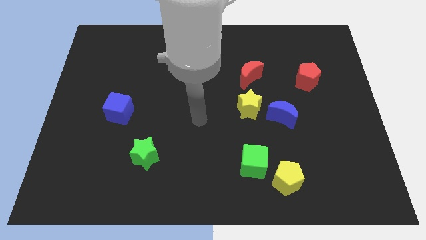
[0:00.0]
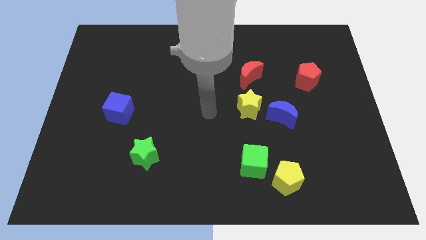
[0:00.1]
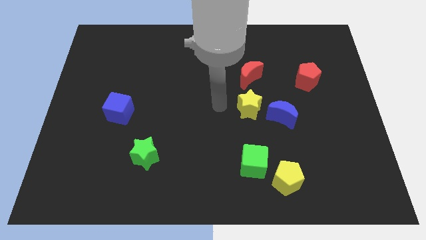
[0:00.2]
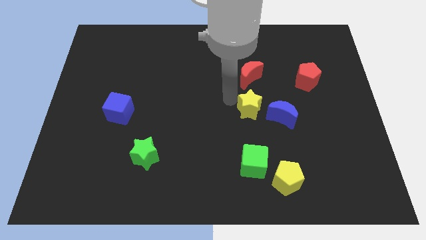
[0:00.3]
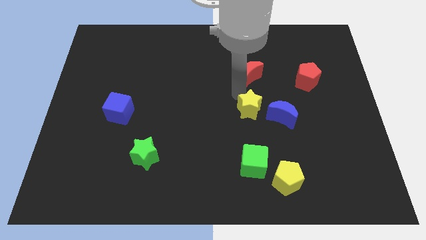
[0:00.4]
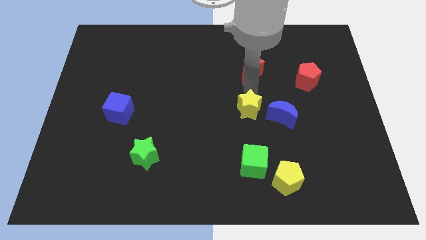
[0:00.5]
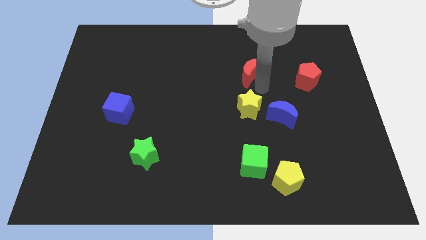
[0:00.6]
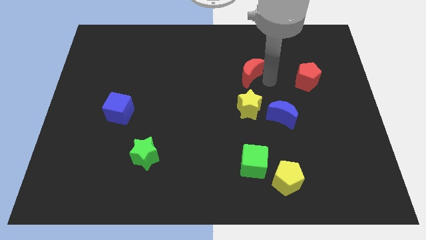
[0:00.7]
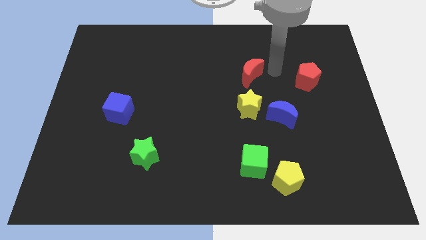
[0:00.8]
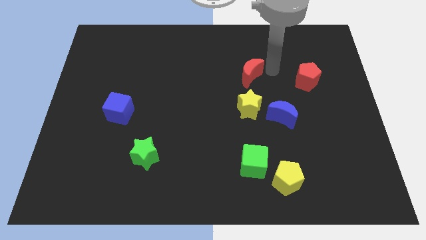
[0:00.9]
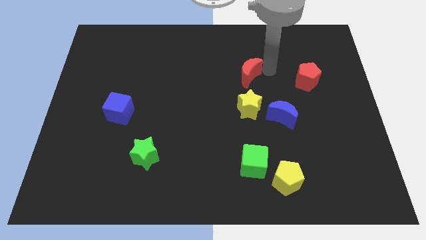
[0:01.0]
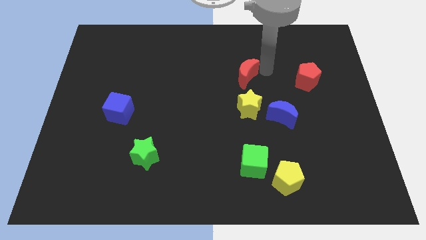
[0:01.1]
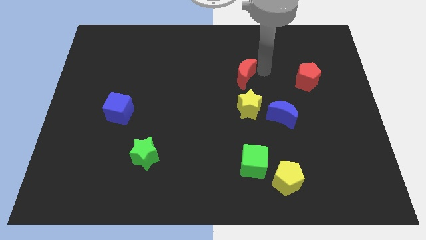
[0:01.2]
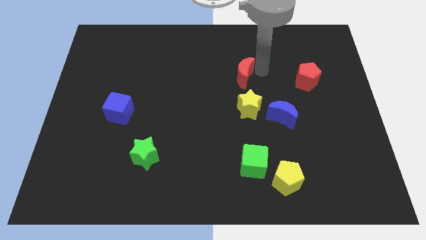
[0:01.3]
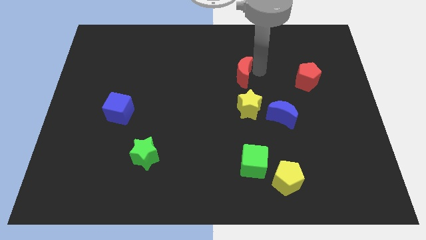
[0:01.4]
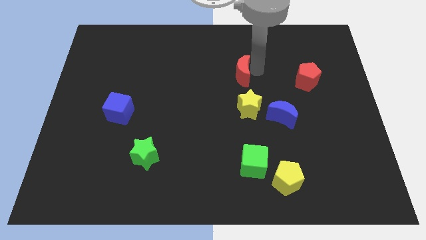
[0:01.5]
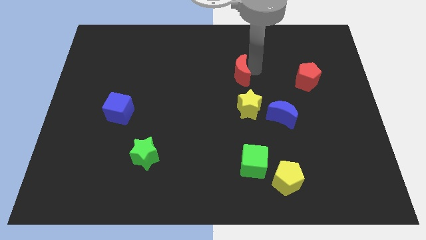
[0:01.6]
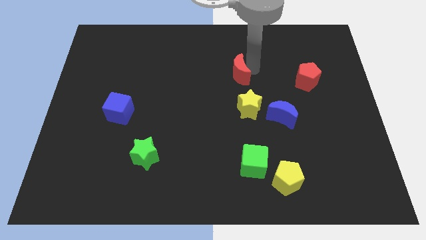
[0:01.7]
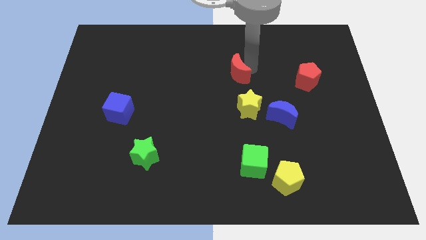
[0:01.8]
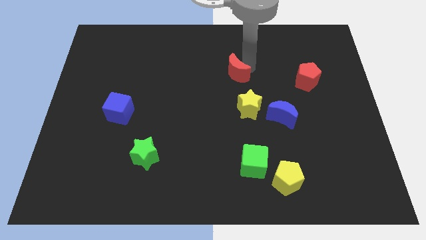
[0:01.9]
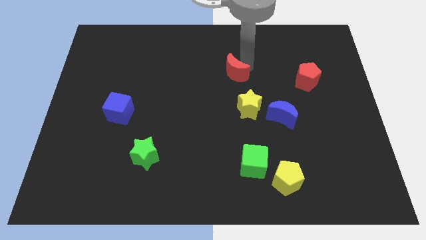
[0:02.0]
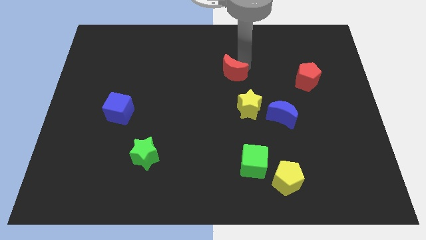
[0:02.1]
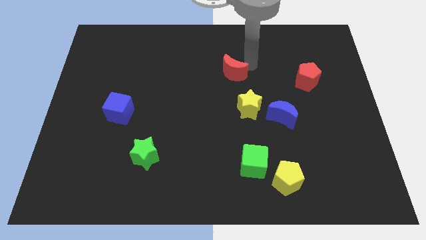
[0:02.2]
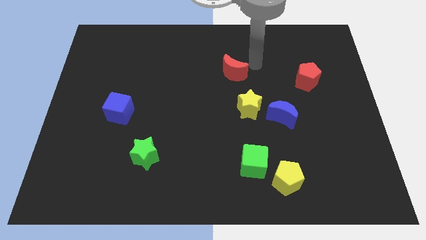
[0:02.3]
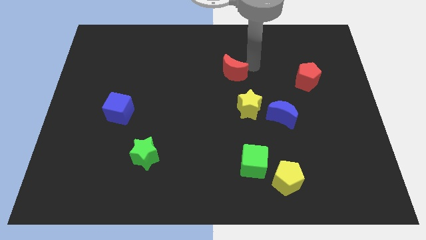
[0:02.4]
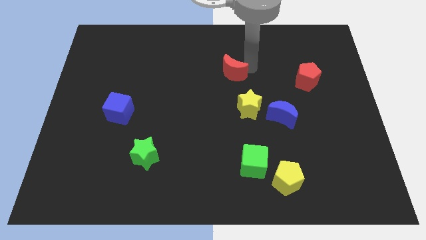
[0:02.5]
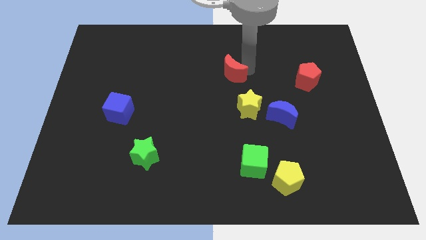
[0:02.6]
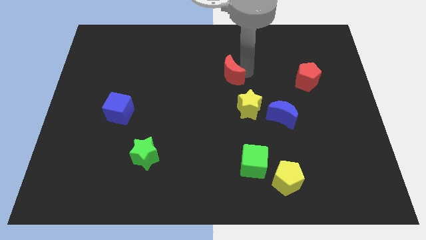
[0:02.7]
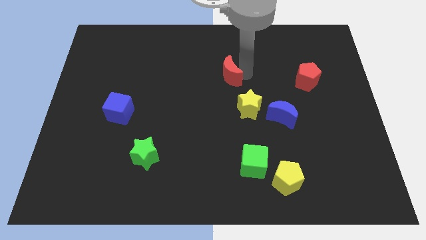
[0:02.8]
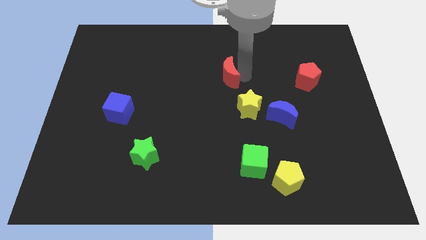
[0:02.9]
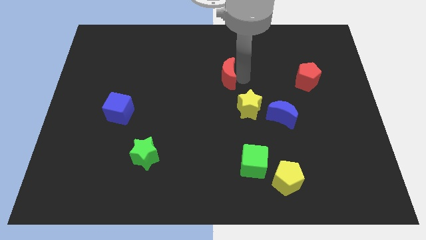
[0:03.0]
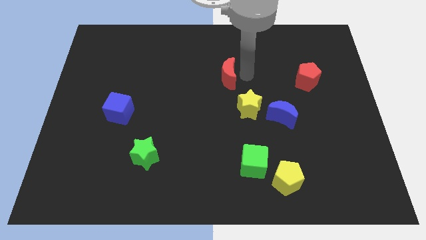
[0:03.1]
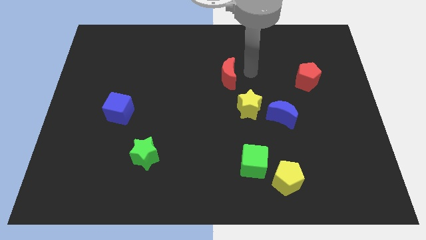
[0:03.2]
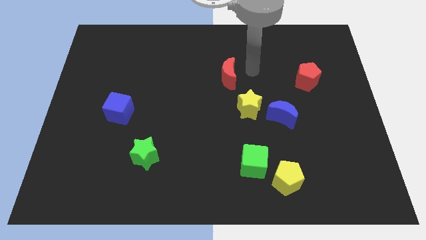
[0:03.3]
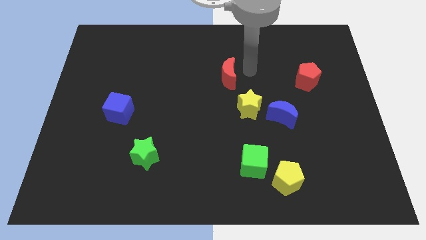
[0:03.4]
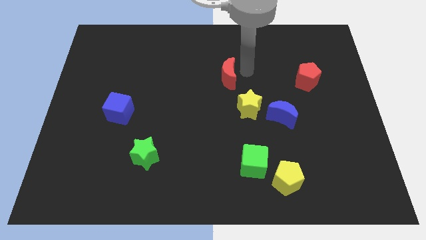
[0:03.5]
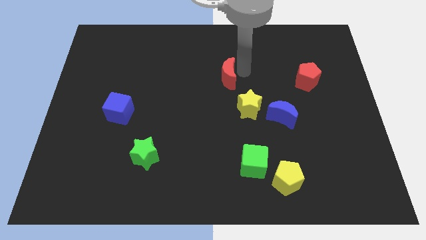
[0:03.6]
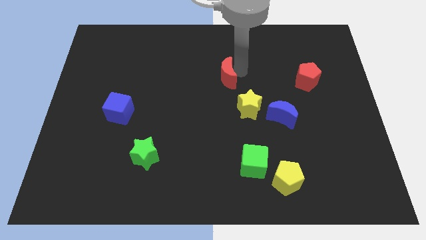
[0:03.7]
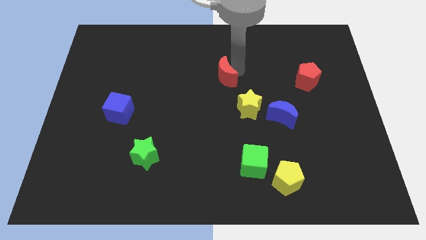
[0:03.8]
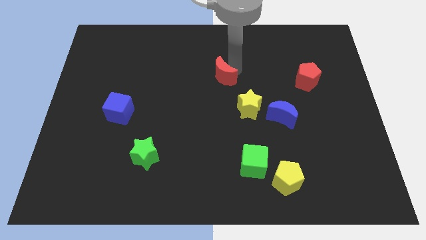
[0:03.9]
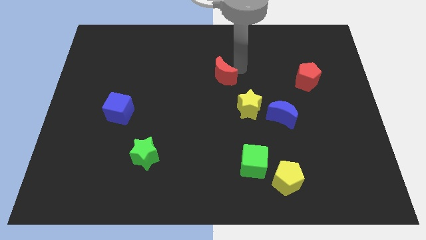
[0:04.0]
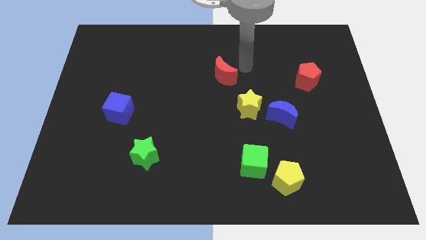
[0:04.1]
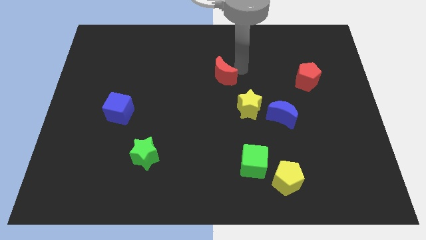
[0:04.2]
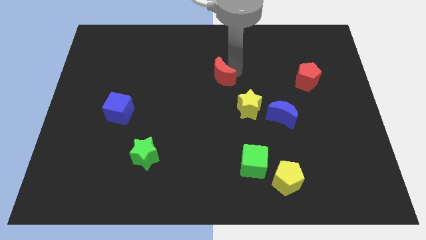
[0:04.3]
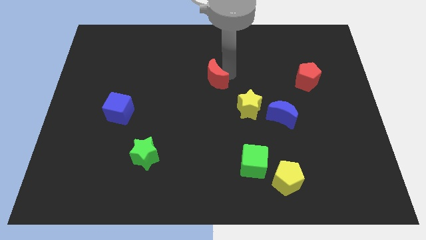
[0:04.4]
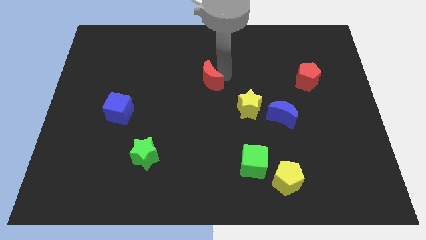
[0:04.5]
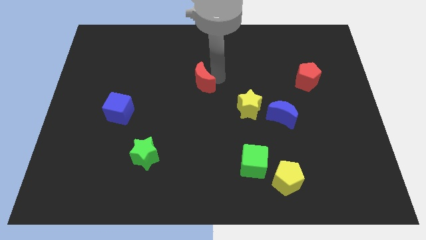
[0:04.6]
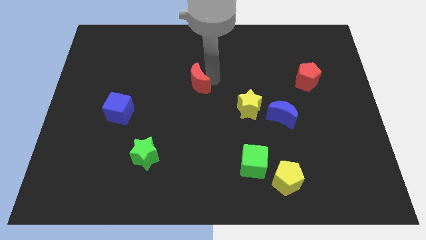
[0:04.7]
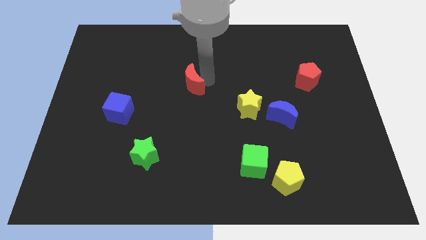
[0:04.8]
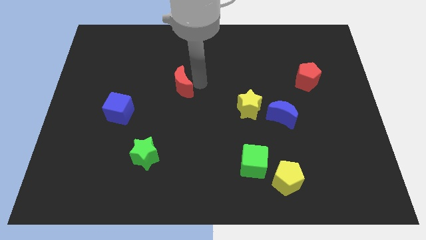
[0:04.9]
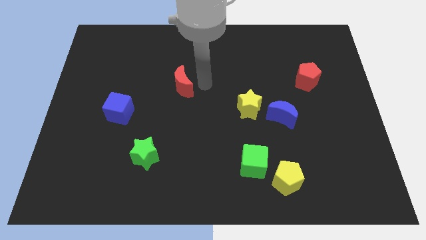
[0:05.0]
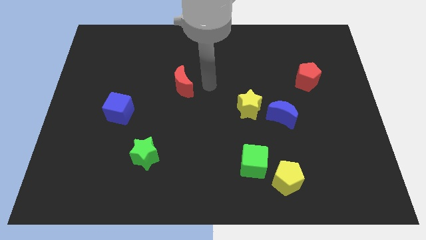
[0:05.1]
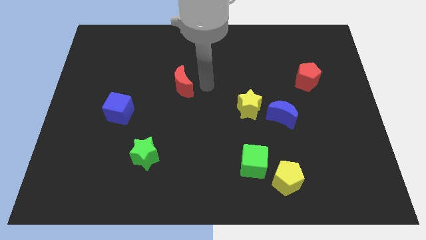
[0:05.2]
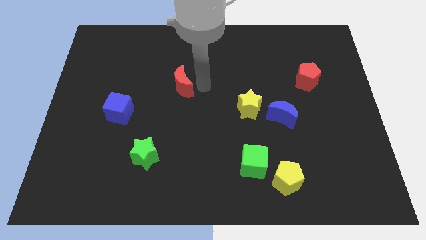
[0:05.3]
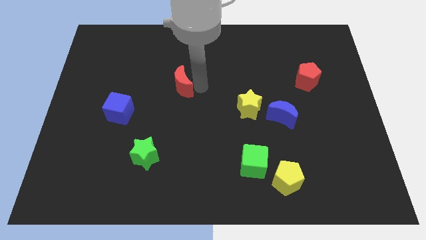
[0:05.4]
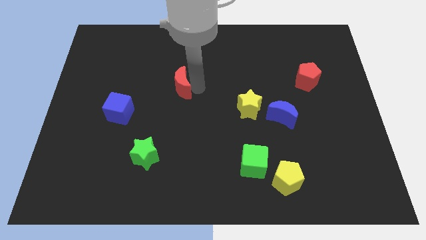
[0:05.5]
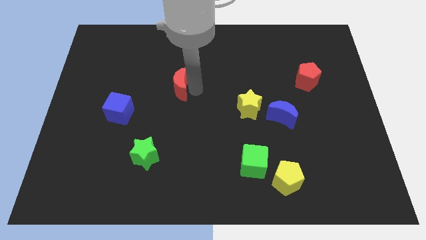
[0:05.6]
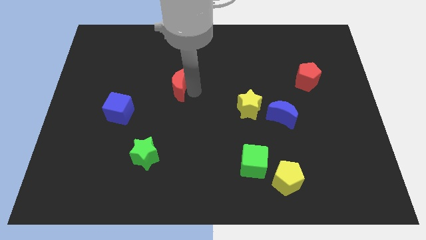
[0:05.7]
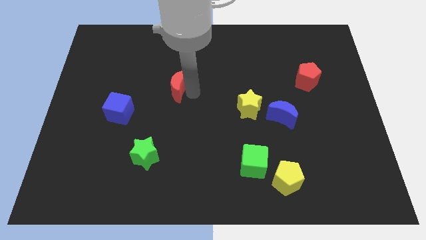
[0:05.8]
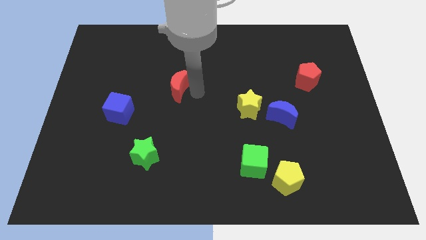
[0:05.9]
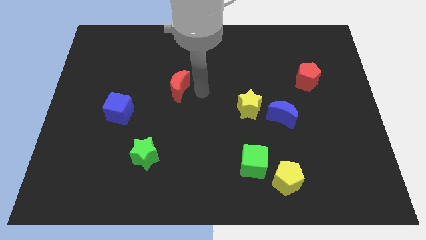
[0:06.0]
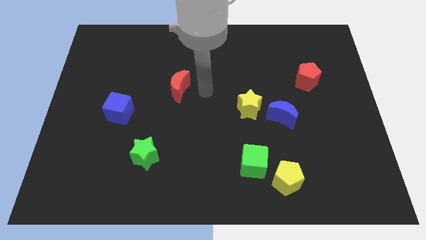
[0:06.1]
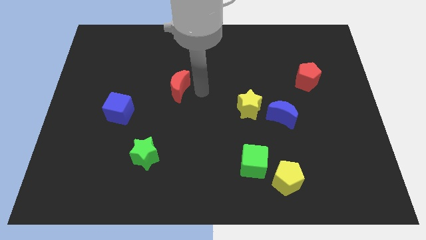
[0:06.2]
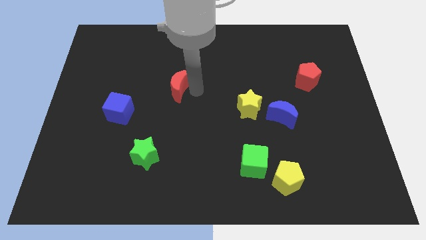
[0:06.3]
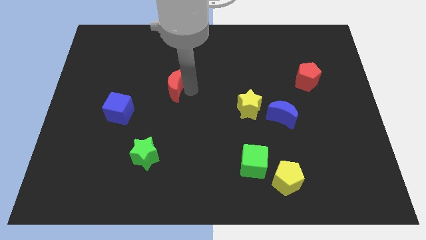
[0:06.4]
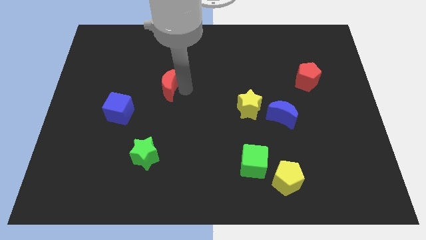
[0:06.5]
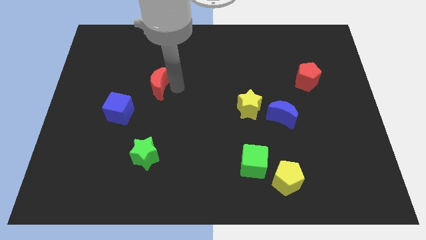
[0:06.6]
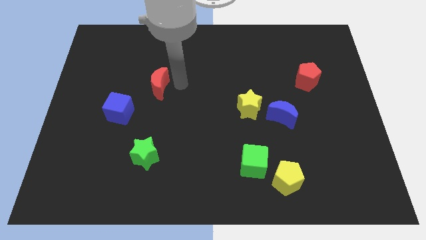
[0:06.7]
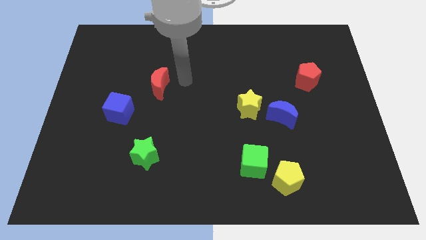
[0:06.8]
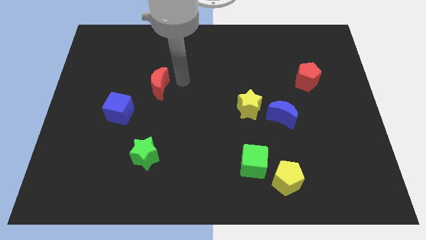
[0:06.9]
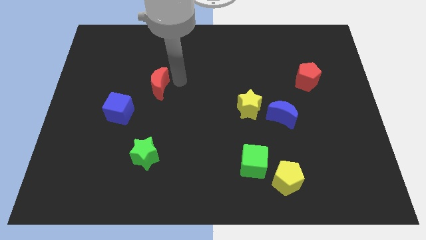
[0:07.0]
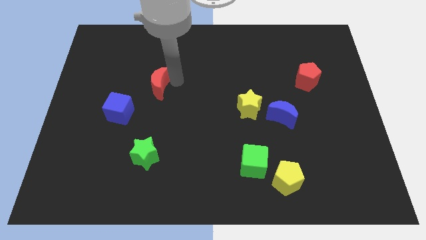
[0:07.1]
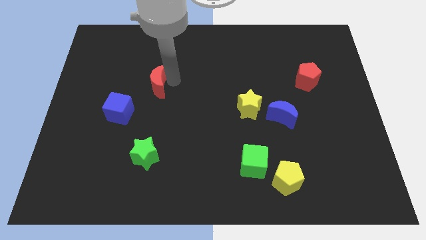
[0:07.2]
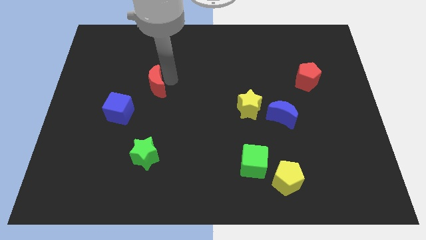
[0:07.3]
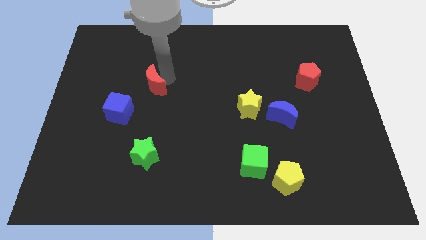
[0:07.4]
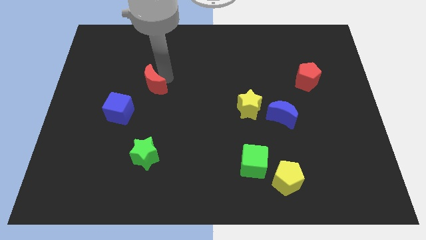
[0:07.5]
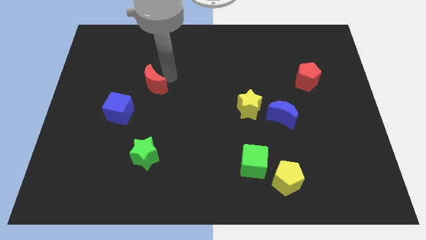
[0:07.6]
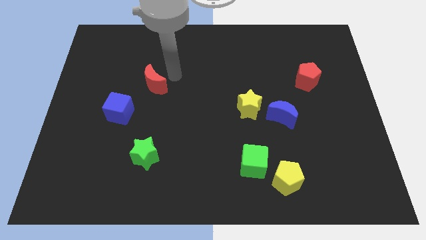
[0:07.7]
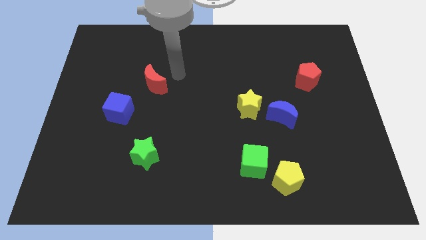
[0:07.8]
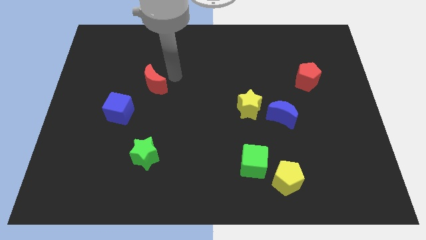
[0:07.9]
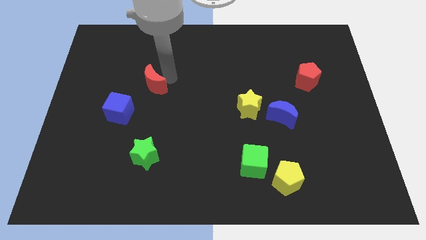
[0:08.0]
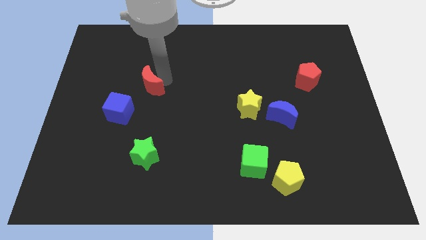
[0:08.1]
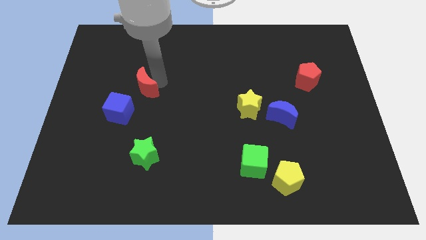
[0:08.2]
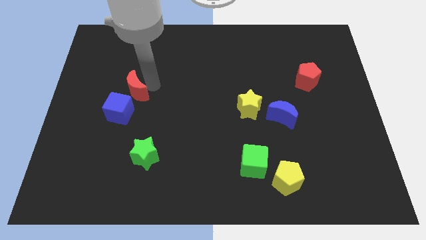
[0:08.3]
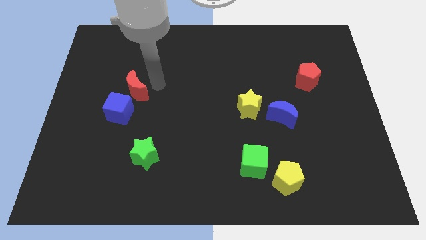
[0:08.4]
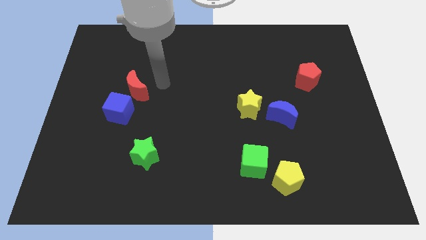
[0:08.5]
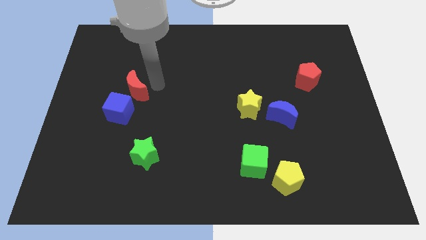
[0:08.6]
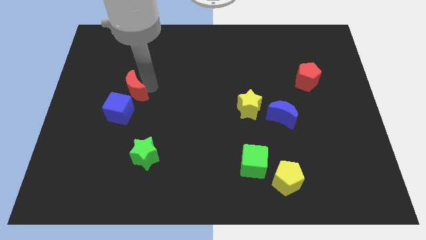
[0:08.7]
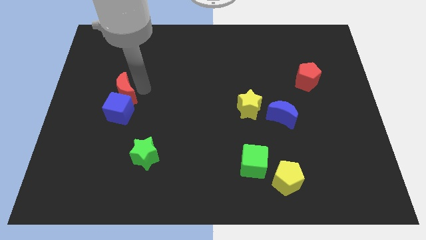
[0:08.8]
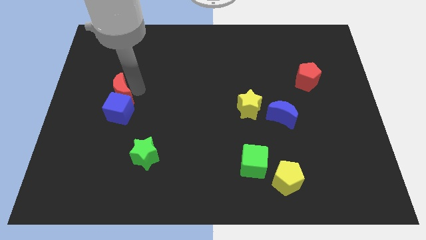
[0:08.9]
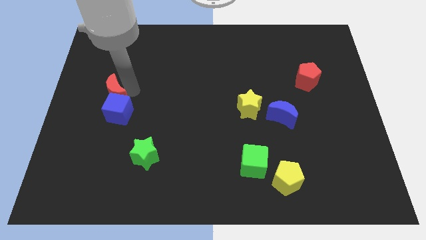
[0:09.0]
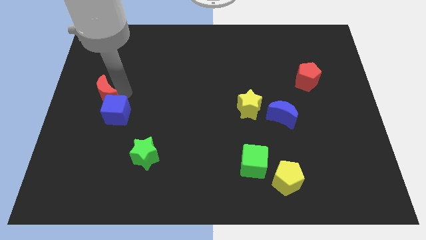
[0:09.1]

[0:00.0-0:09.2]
slide the red moon to the center left
